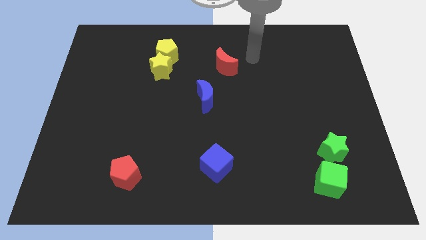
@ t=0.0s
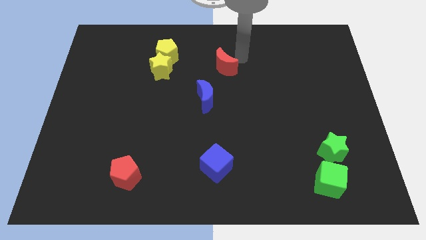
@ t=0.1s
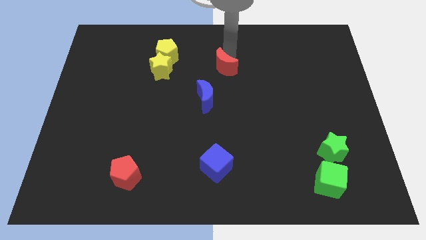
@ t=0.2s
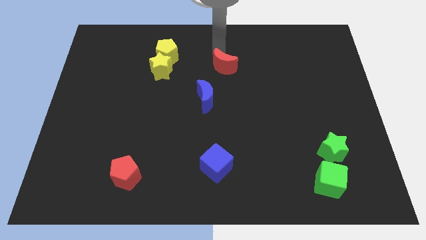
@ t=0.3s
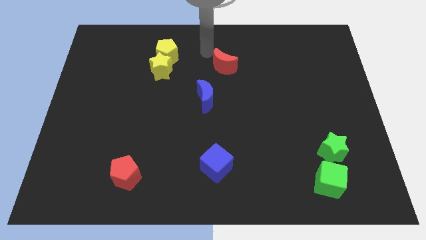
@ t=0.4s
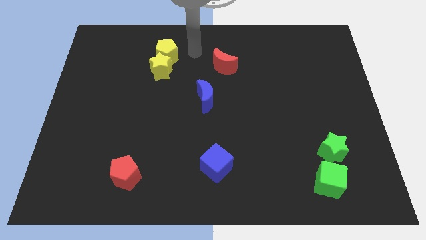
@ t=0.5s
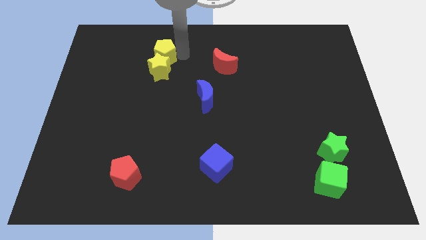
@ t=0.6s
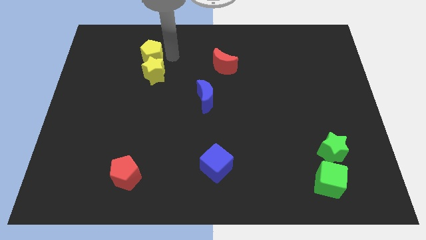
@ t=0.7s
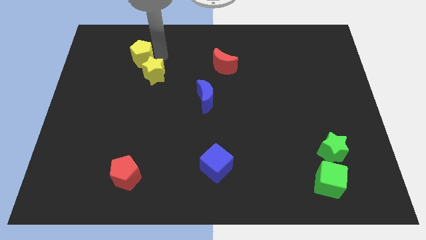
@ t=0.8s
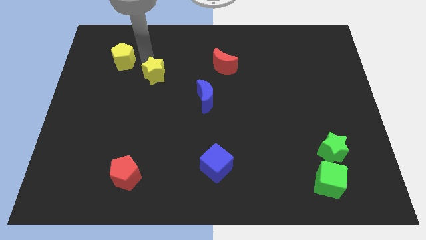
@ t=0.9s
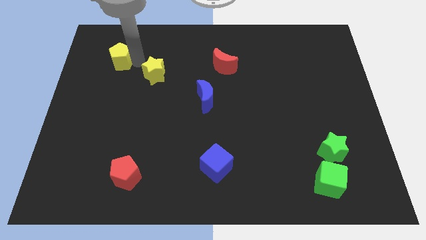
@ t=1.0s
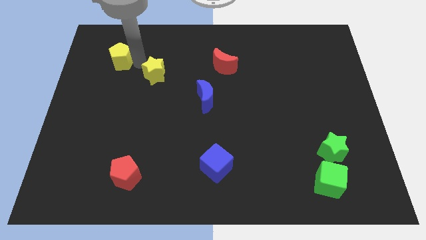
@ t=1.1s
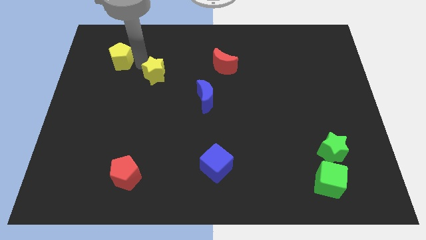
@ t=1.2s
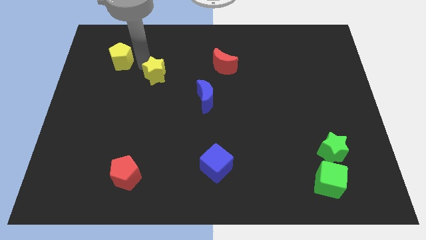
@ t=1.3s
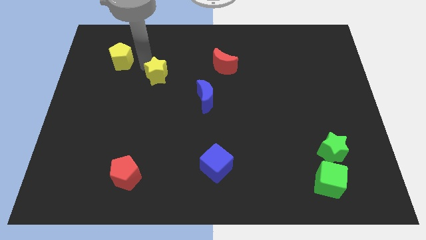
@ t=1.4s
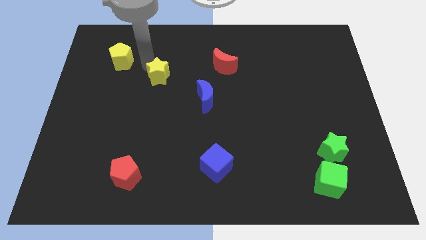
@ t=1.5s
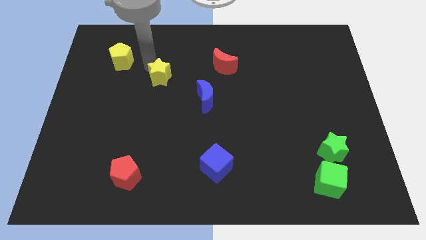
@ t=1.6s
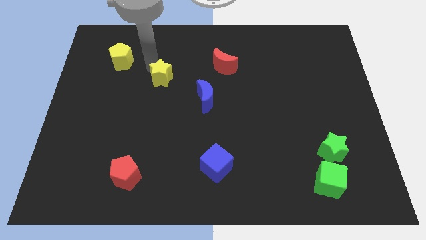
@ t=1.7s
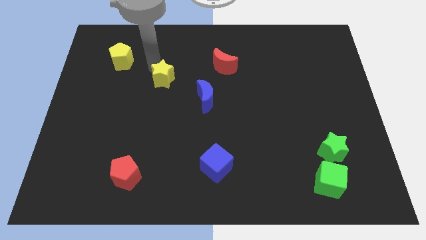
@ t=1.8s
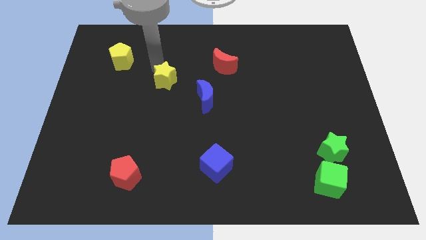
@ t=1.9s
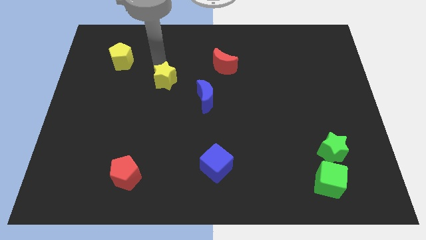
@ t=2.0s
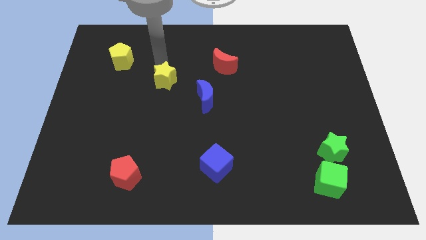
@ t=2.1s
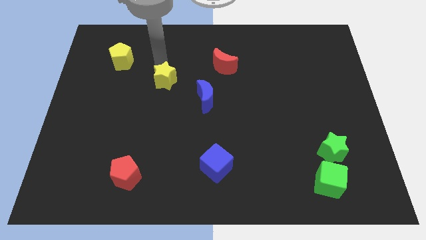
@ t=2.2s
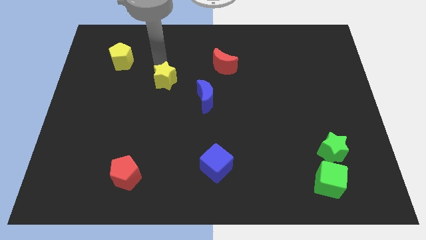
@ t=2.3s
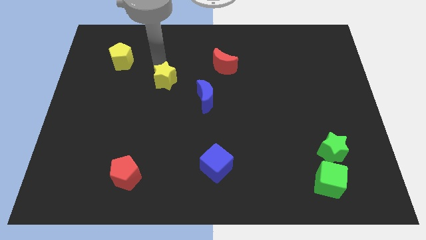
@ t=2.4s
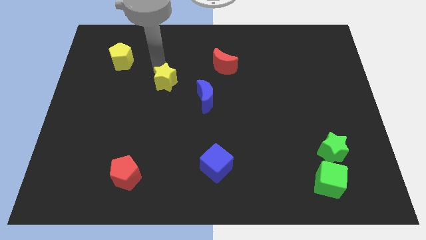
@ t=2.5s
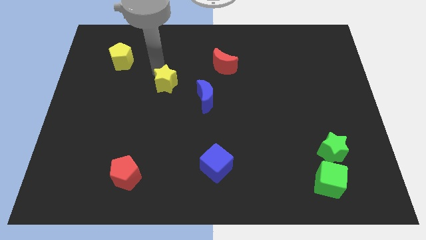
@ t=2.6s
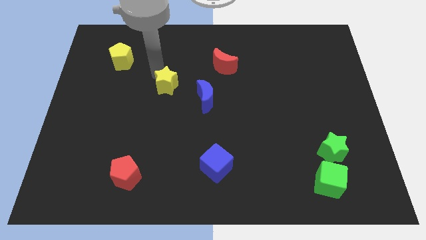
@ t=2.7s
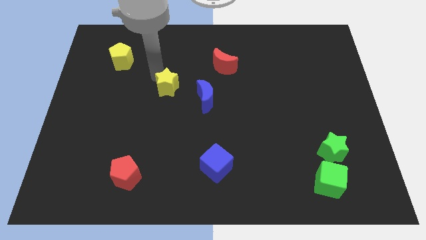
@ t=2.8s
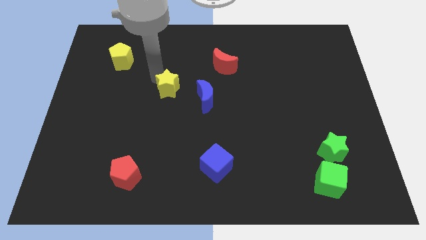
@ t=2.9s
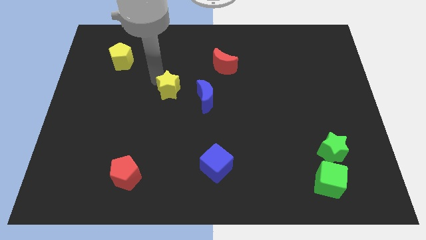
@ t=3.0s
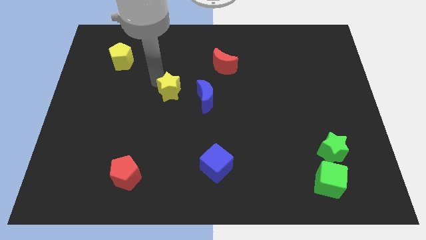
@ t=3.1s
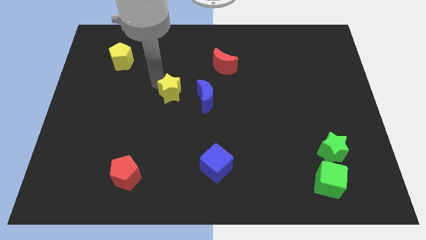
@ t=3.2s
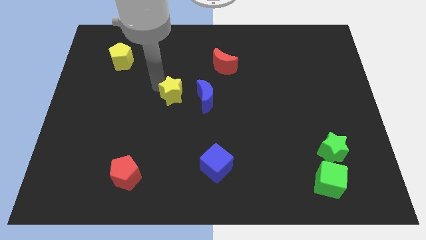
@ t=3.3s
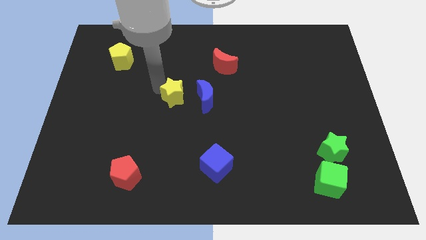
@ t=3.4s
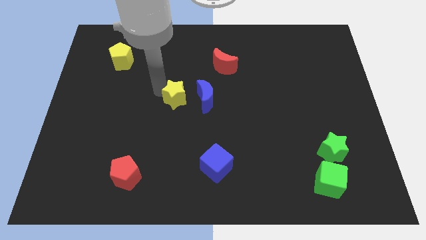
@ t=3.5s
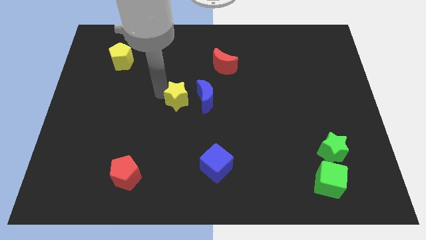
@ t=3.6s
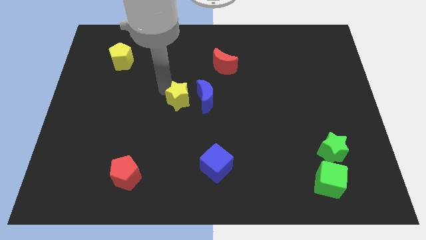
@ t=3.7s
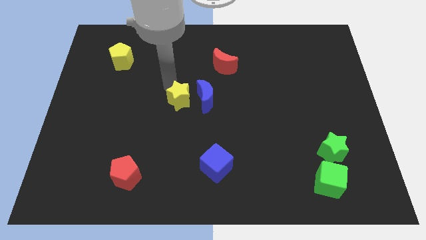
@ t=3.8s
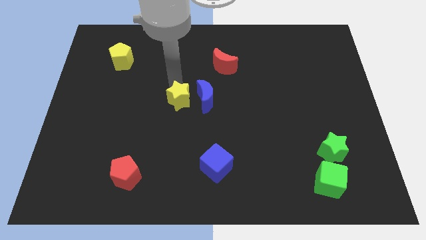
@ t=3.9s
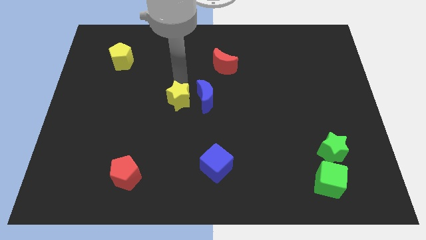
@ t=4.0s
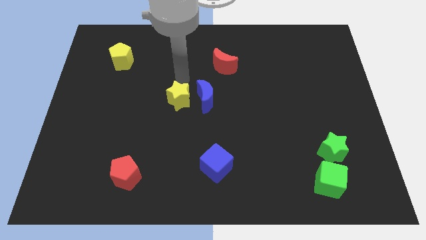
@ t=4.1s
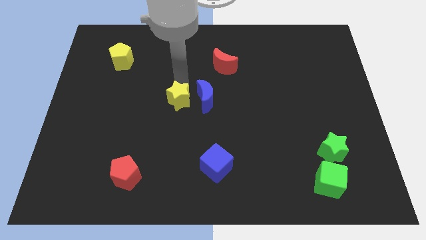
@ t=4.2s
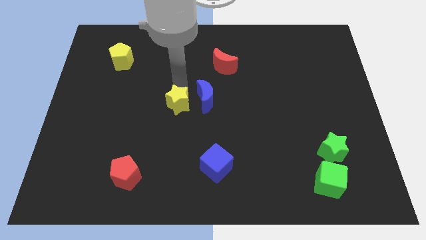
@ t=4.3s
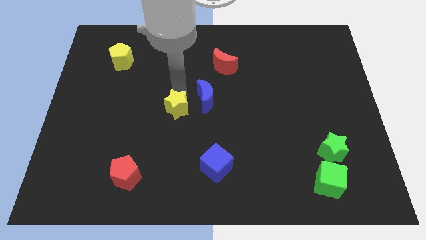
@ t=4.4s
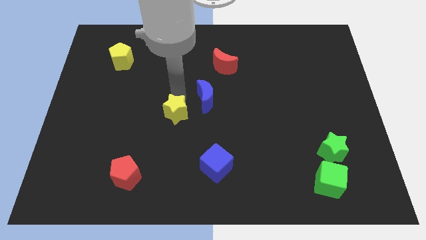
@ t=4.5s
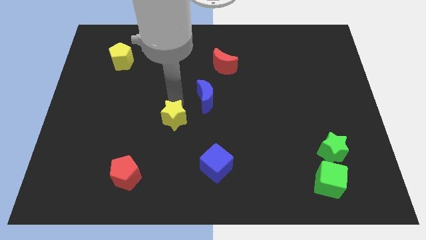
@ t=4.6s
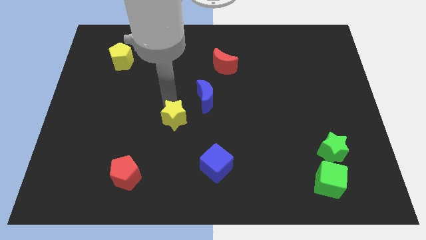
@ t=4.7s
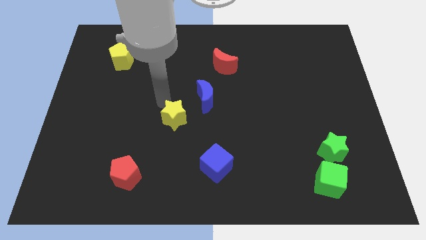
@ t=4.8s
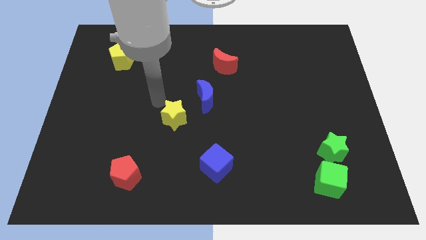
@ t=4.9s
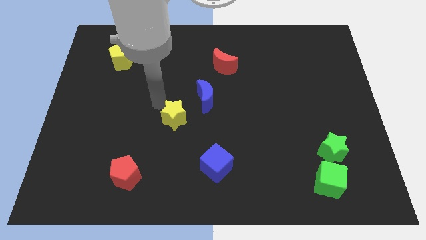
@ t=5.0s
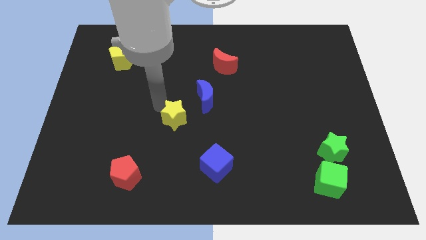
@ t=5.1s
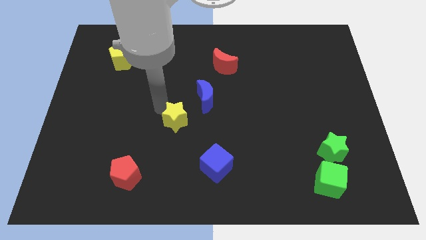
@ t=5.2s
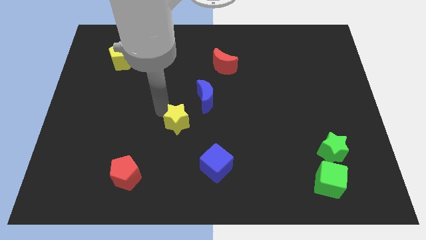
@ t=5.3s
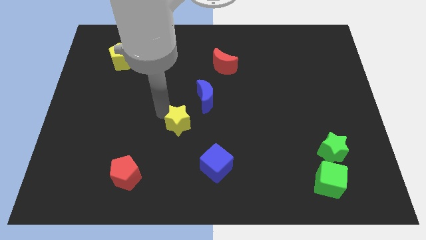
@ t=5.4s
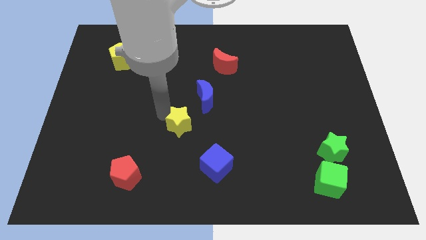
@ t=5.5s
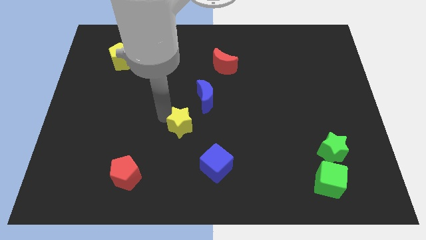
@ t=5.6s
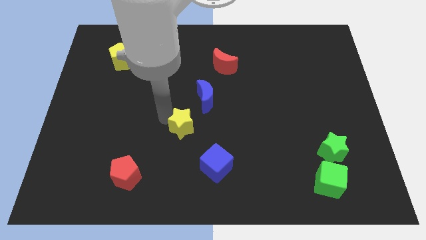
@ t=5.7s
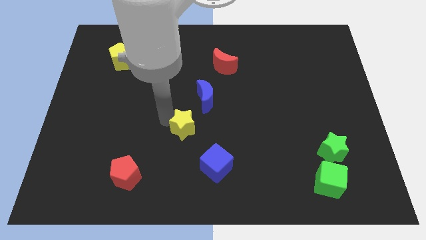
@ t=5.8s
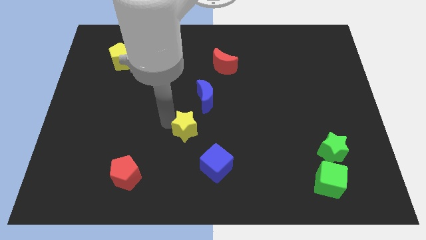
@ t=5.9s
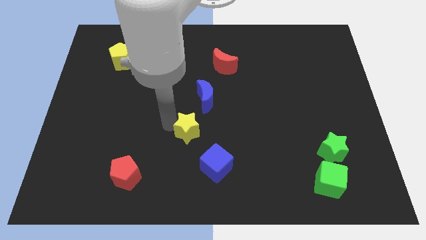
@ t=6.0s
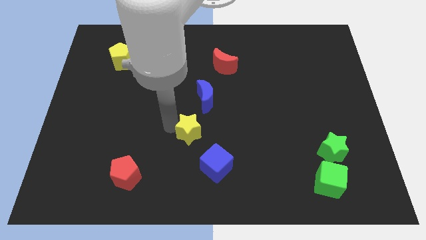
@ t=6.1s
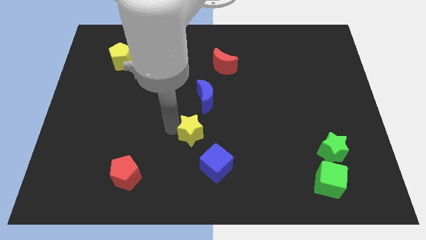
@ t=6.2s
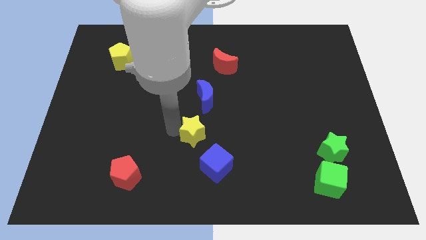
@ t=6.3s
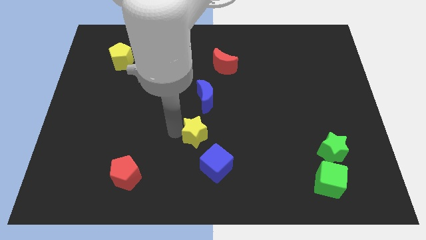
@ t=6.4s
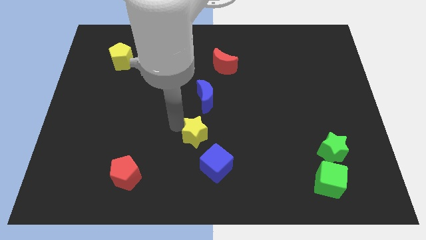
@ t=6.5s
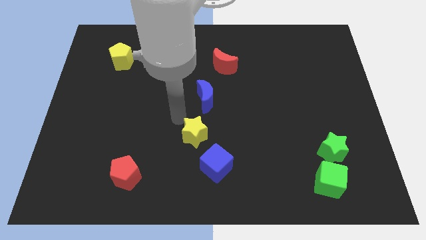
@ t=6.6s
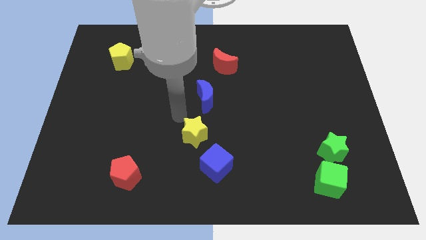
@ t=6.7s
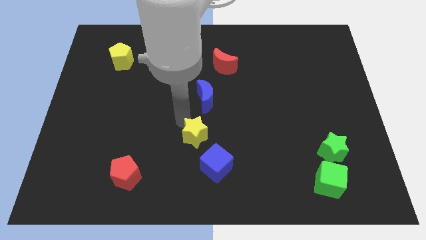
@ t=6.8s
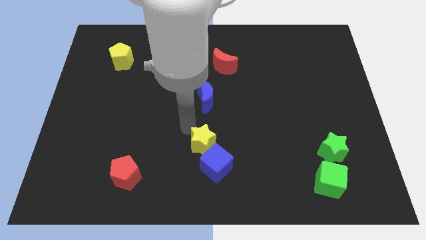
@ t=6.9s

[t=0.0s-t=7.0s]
slide the yellow star next to the blue cube
